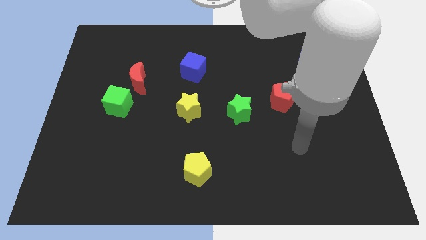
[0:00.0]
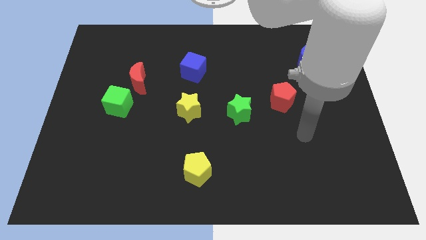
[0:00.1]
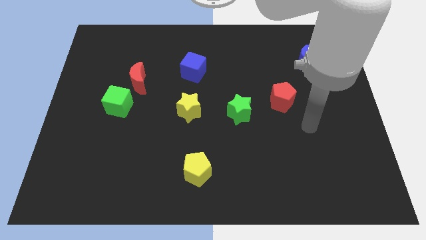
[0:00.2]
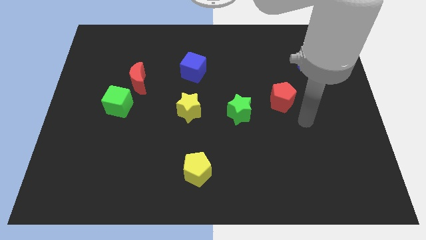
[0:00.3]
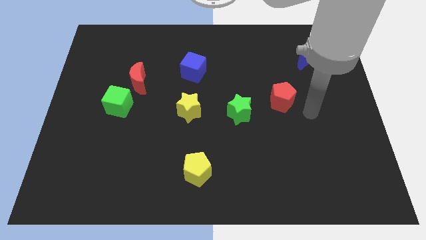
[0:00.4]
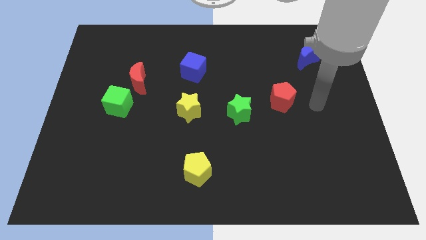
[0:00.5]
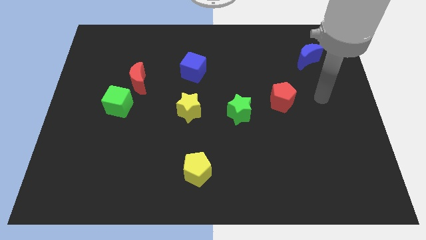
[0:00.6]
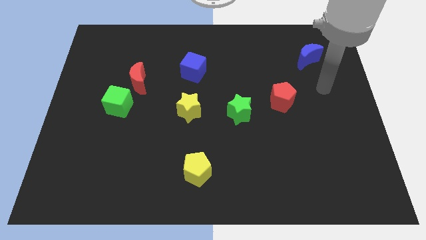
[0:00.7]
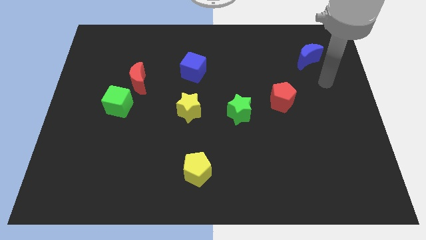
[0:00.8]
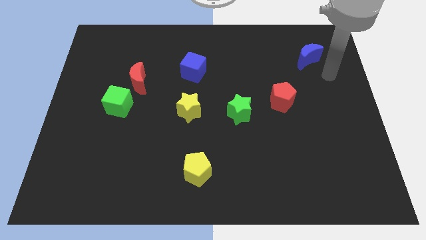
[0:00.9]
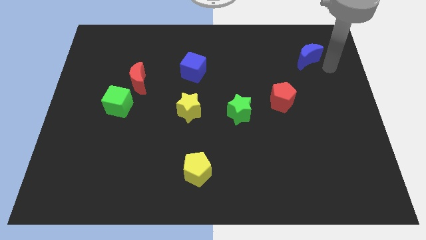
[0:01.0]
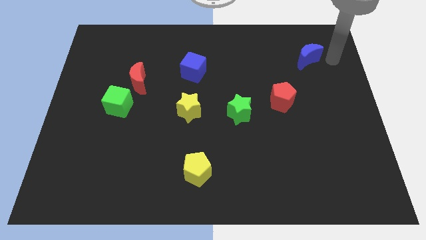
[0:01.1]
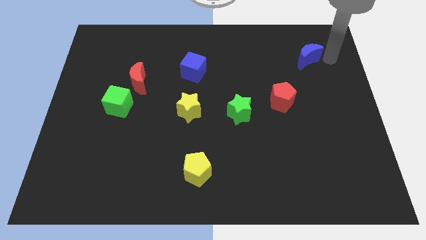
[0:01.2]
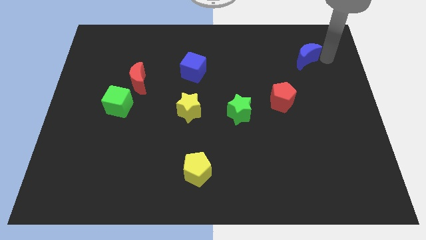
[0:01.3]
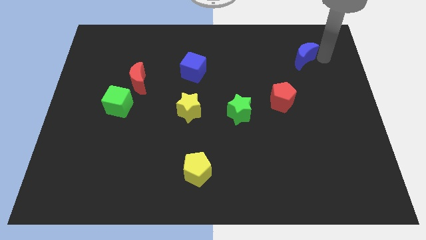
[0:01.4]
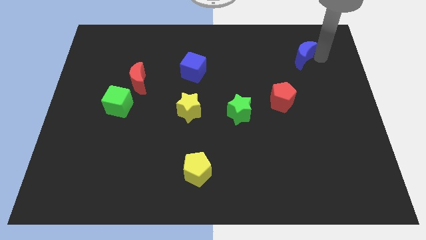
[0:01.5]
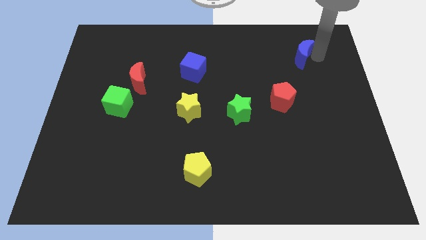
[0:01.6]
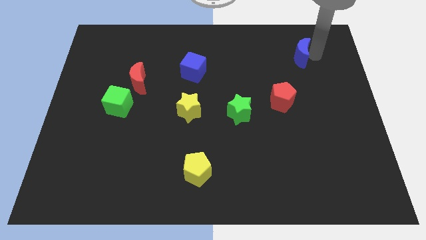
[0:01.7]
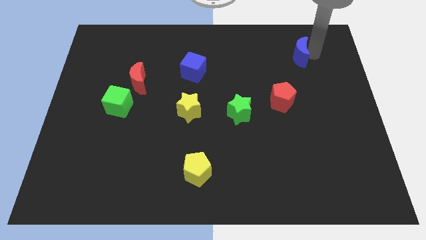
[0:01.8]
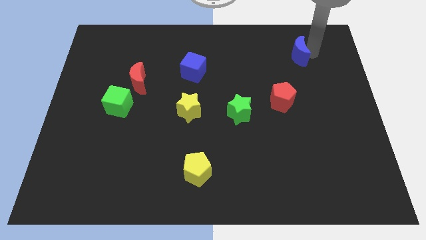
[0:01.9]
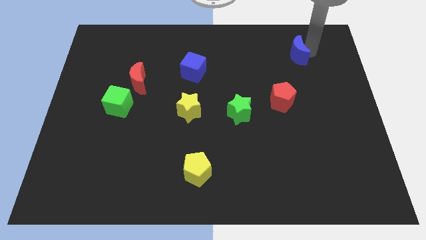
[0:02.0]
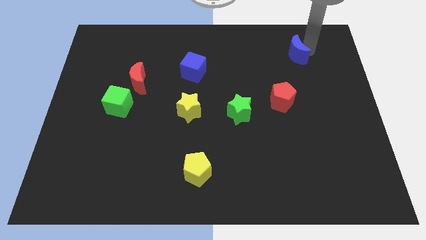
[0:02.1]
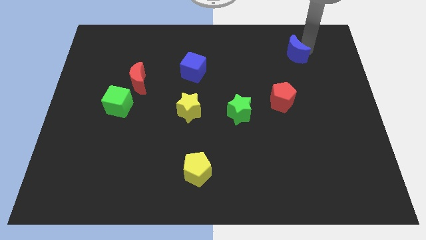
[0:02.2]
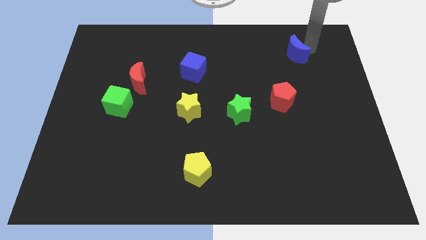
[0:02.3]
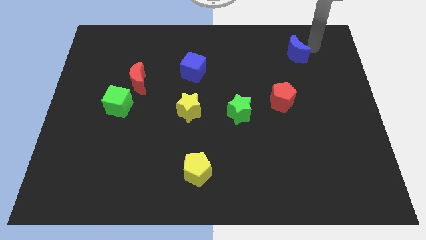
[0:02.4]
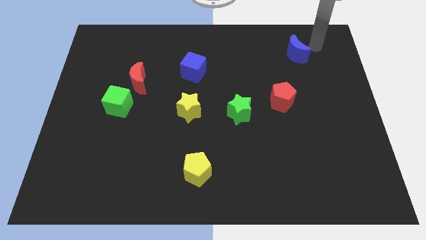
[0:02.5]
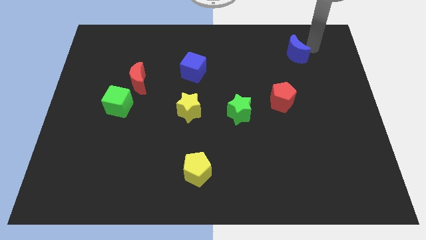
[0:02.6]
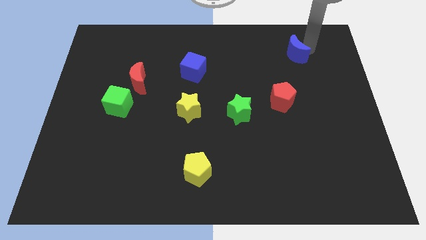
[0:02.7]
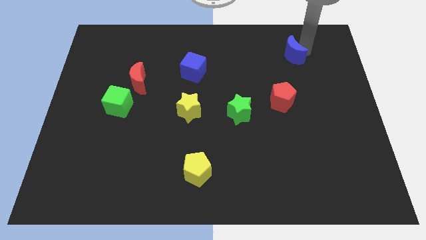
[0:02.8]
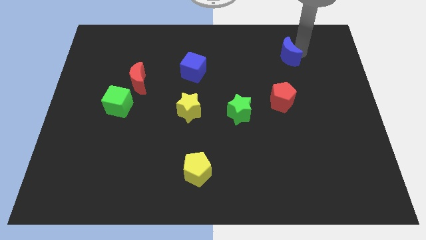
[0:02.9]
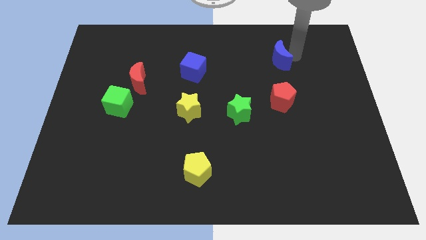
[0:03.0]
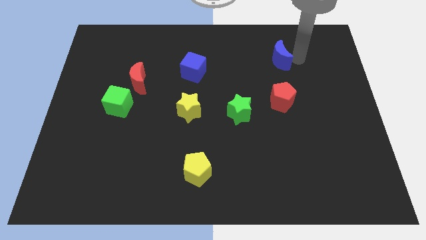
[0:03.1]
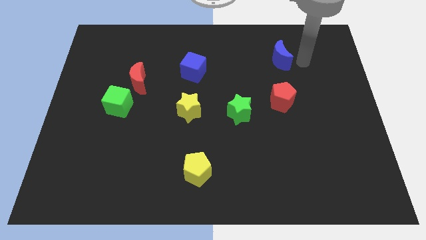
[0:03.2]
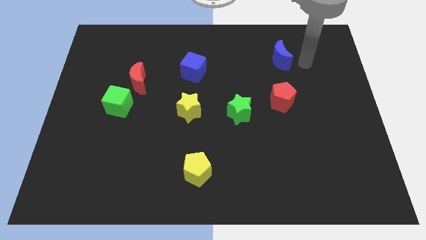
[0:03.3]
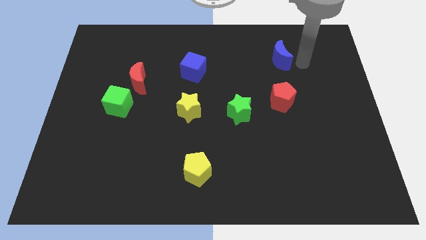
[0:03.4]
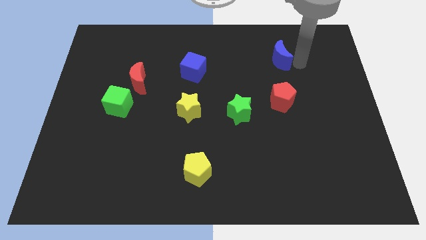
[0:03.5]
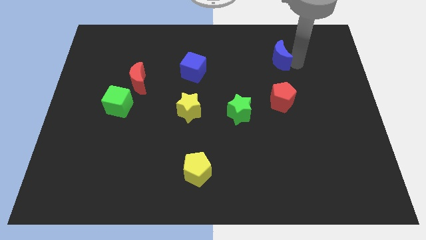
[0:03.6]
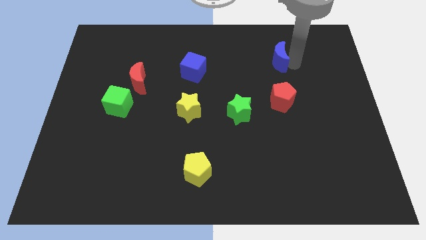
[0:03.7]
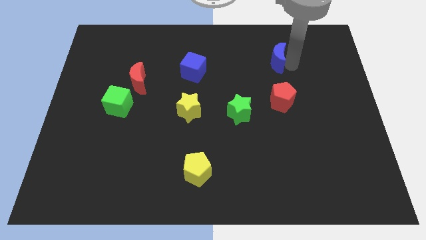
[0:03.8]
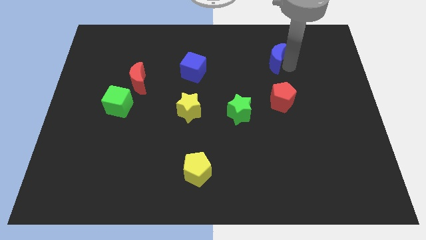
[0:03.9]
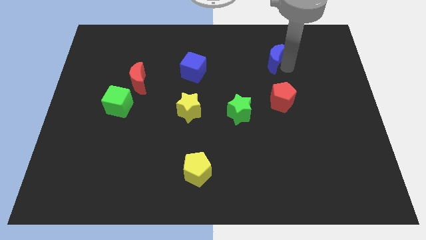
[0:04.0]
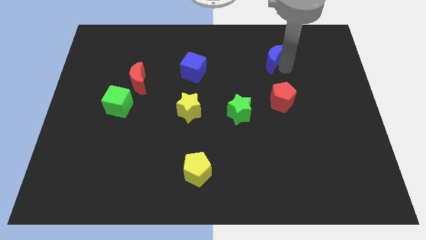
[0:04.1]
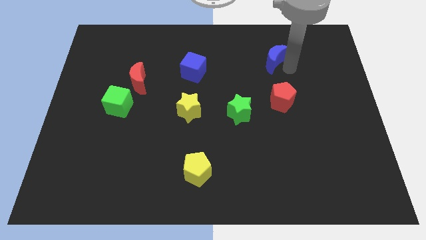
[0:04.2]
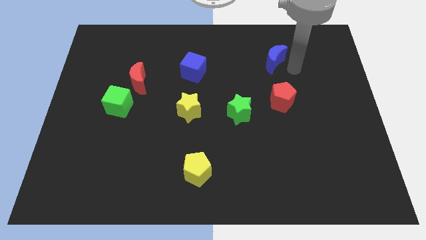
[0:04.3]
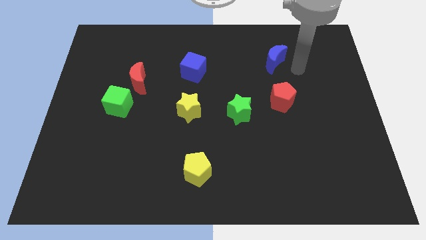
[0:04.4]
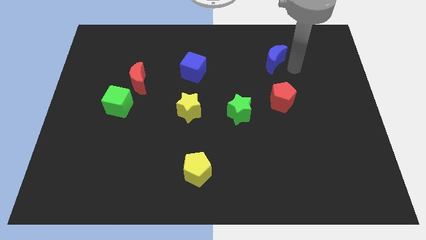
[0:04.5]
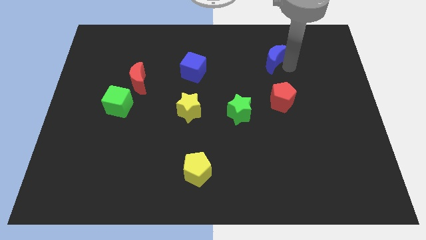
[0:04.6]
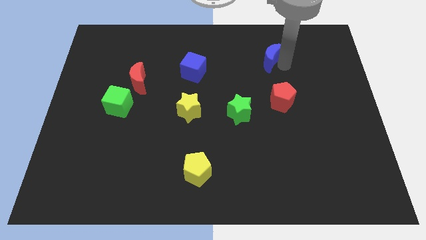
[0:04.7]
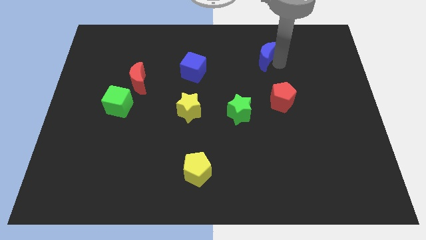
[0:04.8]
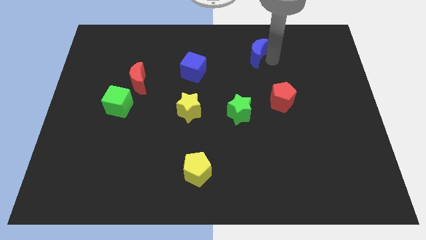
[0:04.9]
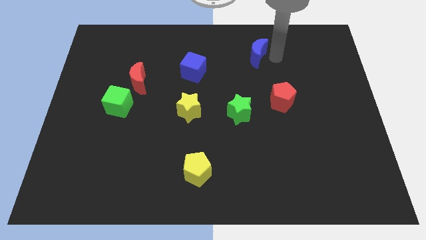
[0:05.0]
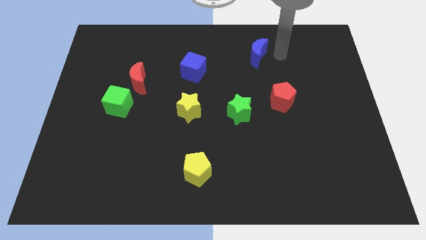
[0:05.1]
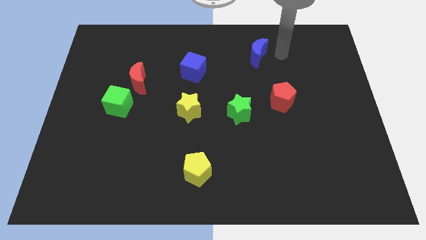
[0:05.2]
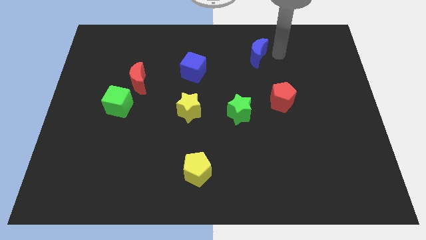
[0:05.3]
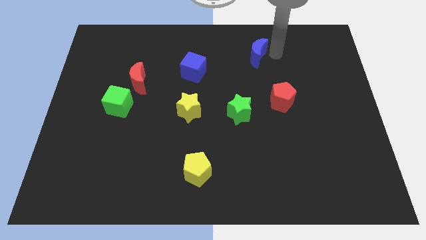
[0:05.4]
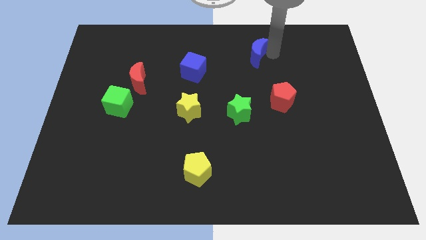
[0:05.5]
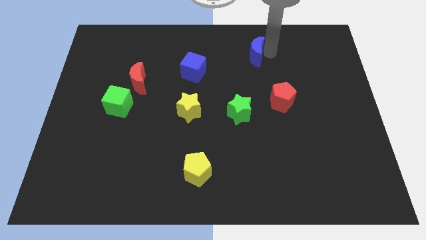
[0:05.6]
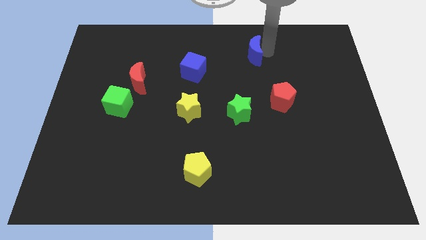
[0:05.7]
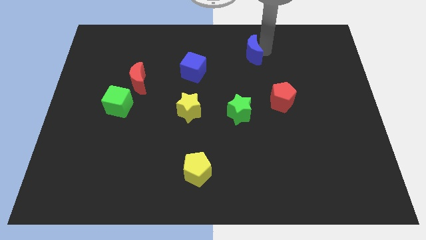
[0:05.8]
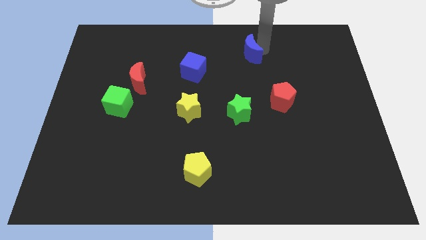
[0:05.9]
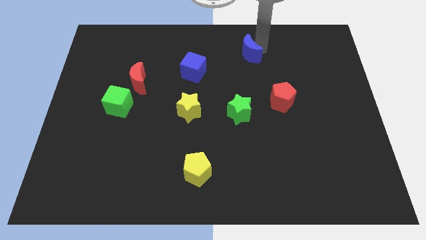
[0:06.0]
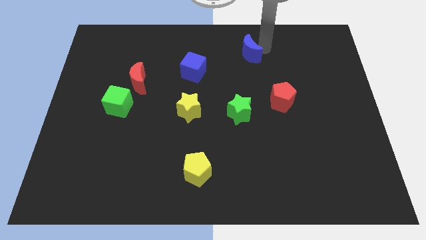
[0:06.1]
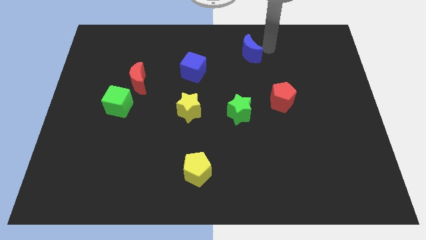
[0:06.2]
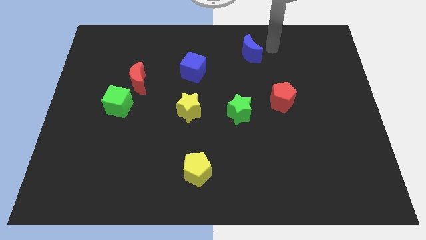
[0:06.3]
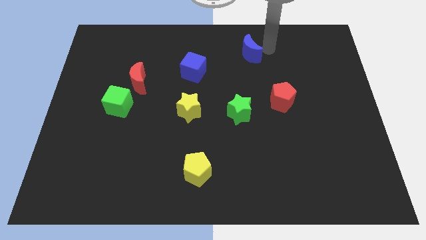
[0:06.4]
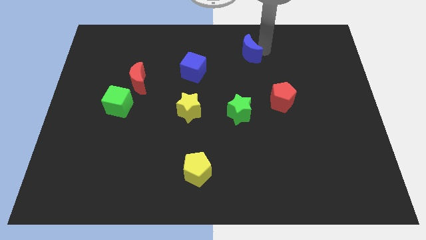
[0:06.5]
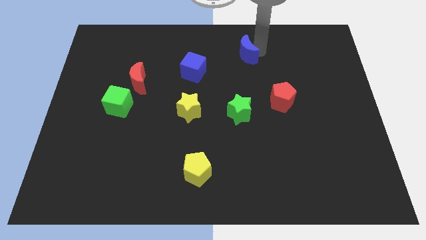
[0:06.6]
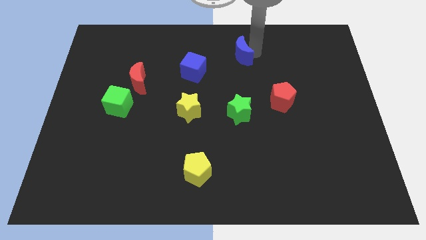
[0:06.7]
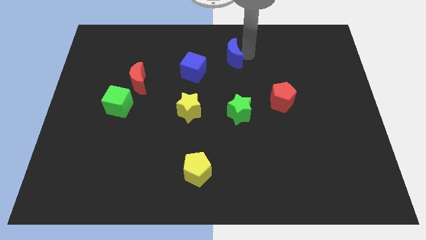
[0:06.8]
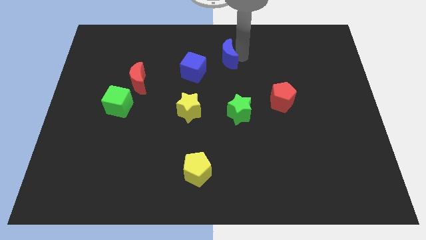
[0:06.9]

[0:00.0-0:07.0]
slide the blue moon left

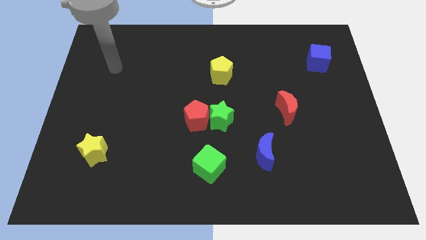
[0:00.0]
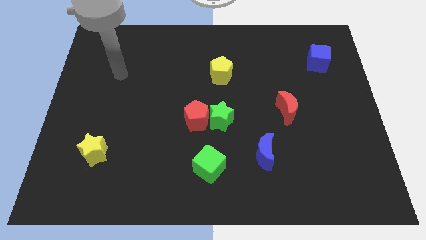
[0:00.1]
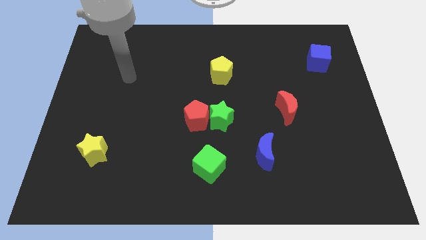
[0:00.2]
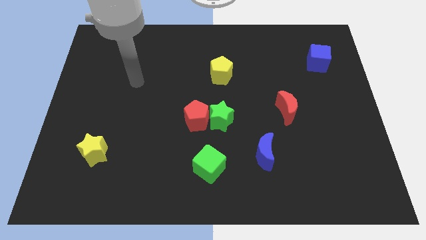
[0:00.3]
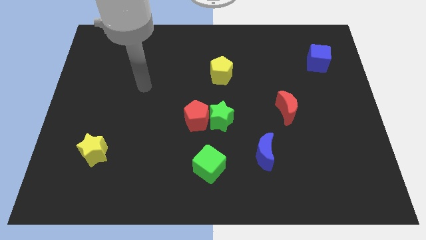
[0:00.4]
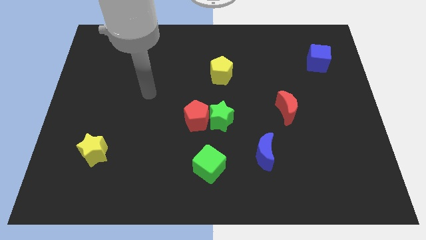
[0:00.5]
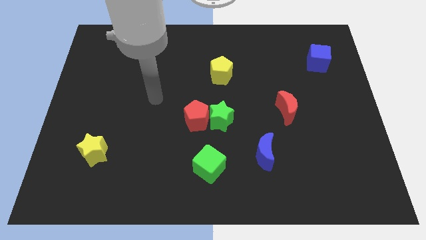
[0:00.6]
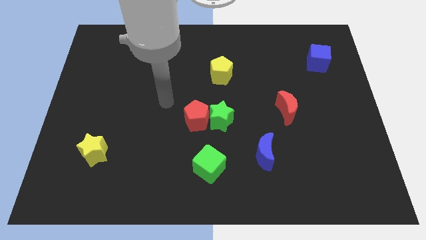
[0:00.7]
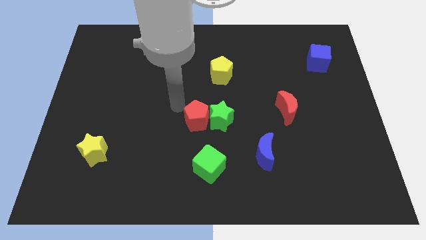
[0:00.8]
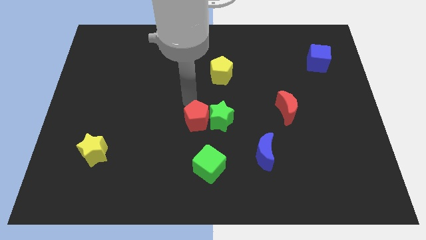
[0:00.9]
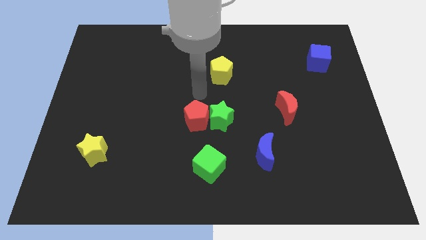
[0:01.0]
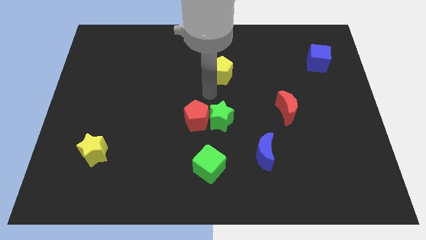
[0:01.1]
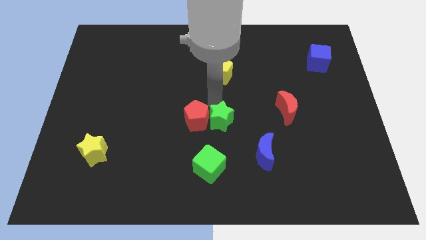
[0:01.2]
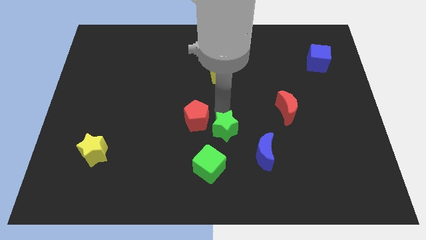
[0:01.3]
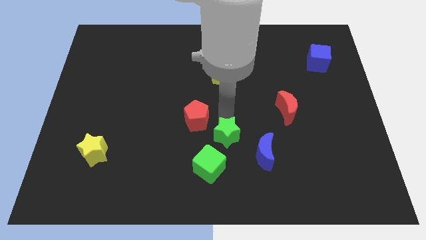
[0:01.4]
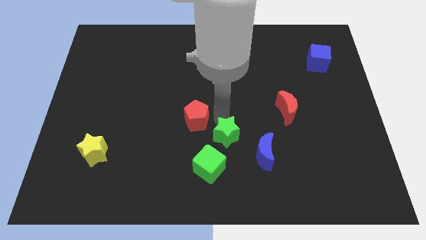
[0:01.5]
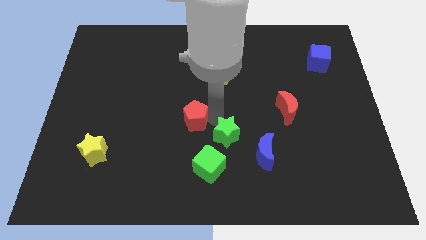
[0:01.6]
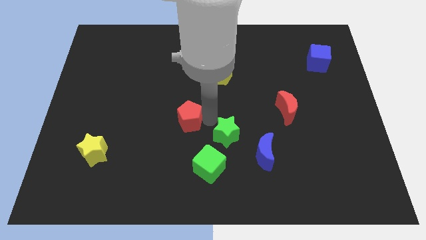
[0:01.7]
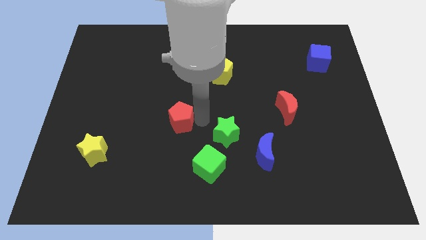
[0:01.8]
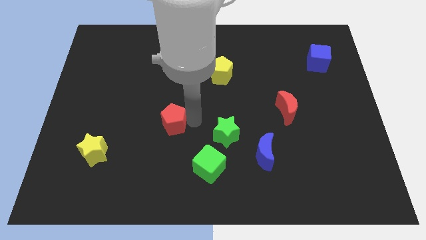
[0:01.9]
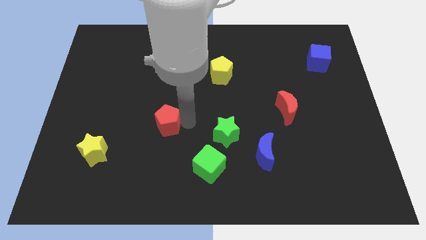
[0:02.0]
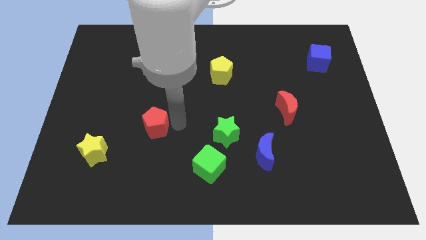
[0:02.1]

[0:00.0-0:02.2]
move the red pentagon a bit left
